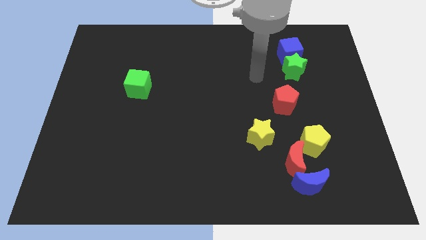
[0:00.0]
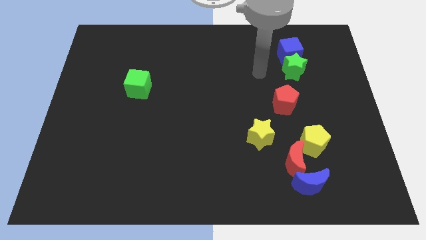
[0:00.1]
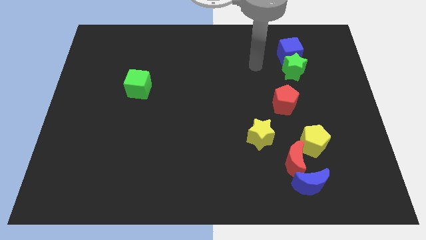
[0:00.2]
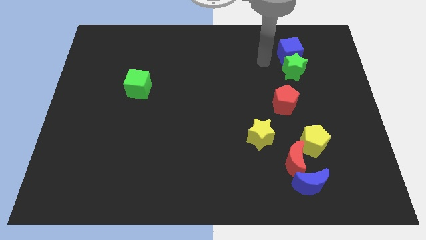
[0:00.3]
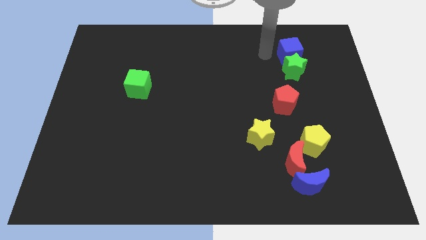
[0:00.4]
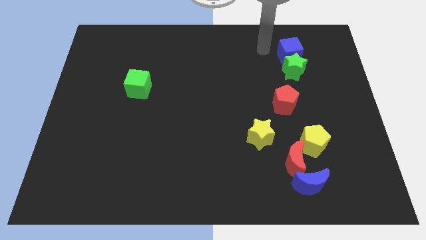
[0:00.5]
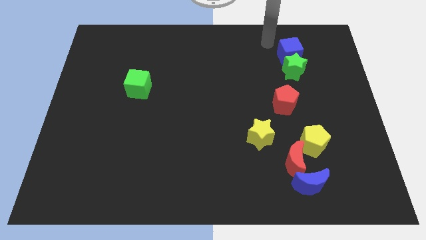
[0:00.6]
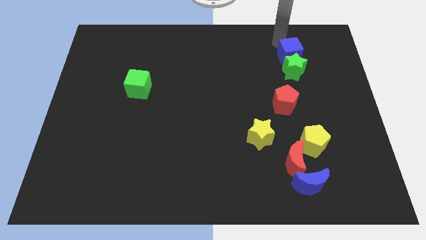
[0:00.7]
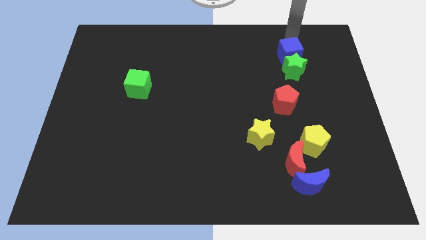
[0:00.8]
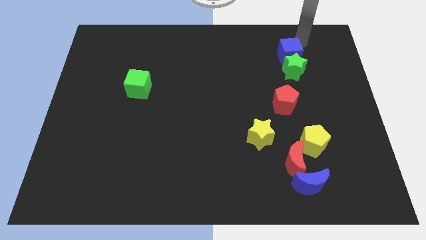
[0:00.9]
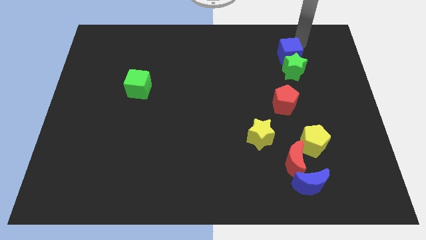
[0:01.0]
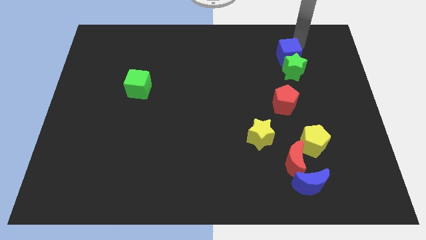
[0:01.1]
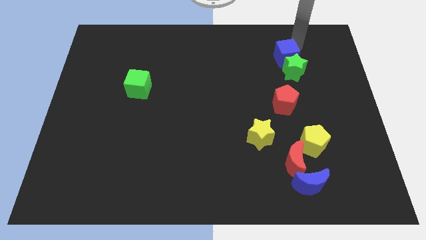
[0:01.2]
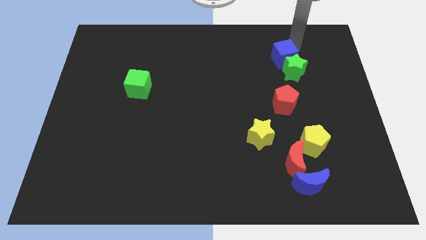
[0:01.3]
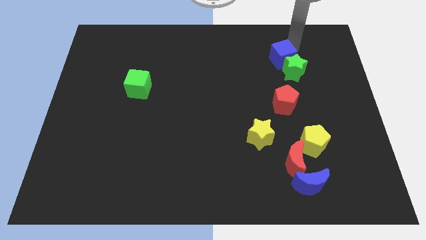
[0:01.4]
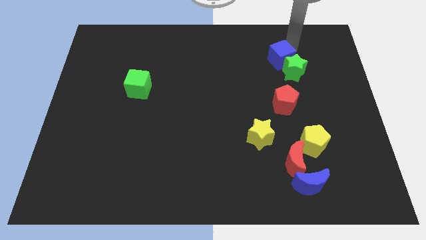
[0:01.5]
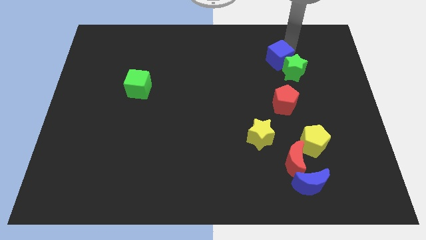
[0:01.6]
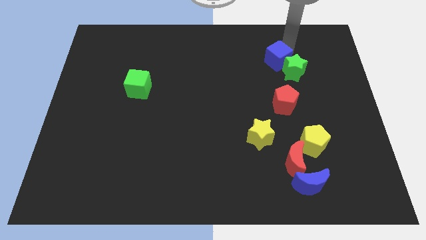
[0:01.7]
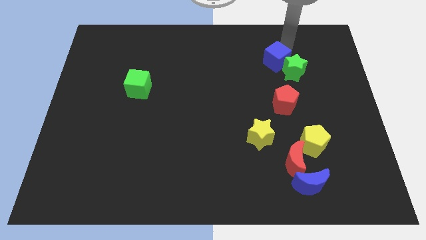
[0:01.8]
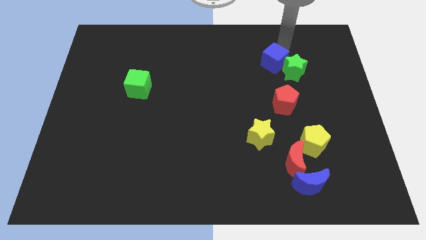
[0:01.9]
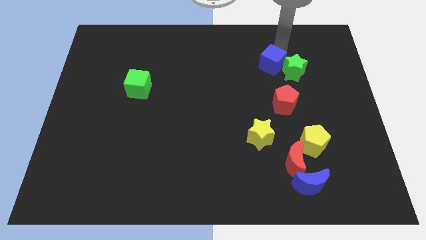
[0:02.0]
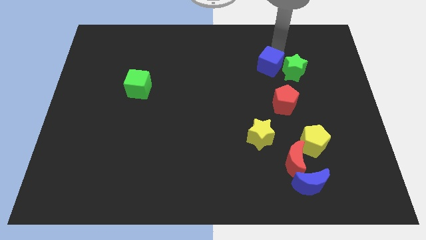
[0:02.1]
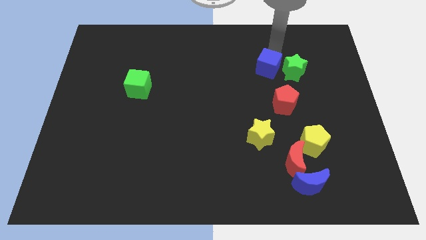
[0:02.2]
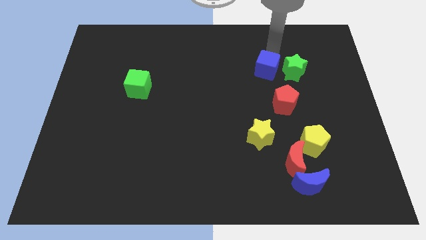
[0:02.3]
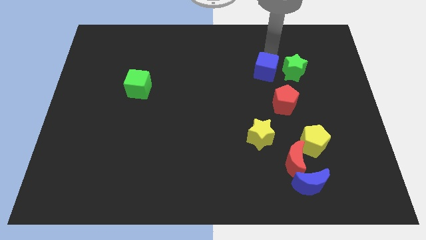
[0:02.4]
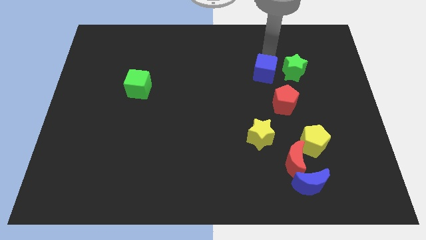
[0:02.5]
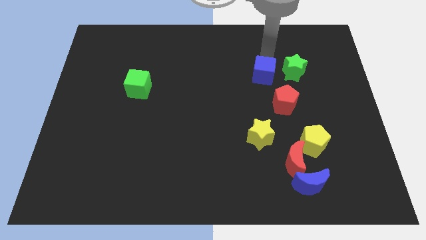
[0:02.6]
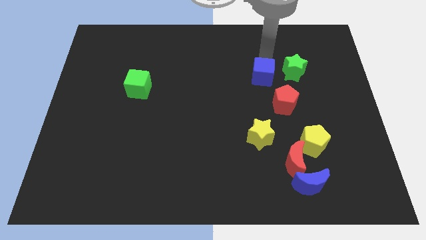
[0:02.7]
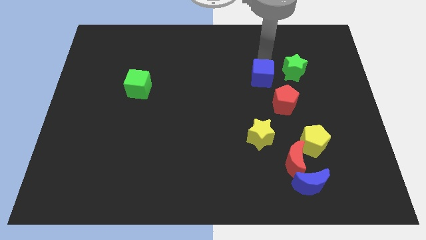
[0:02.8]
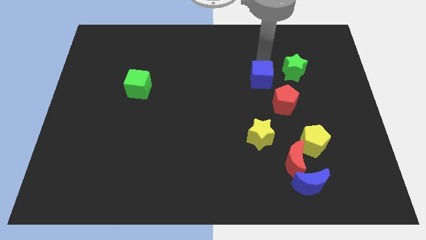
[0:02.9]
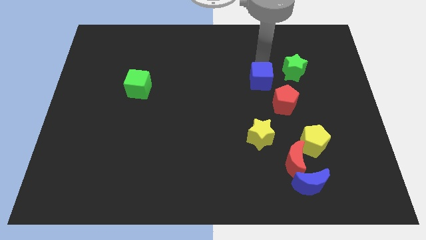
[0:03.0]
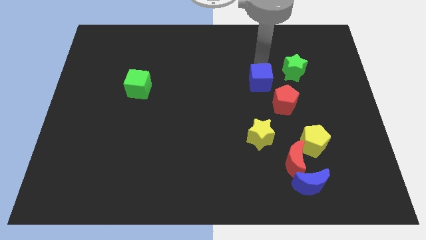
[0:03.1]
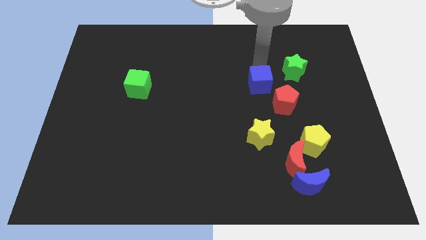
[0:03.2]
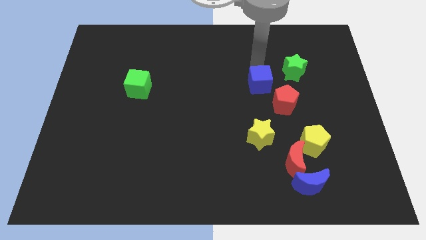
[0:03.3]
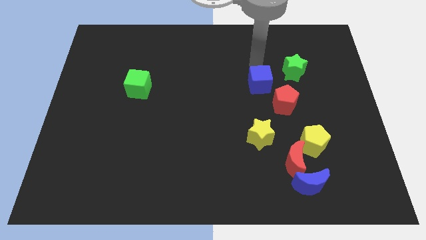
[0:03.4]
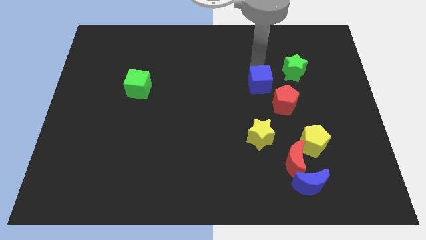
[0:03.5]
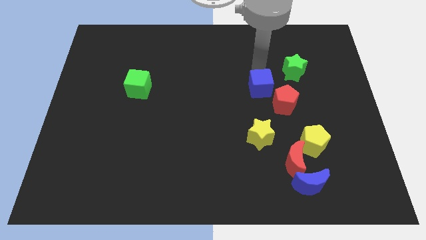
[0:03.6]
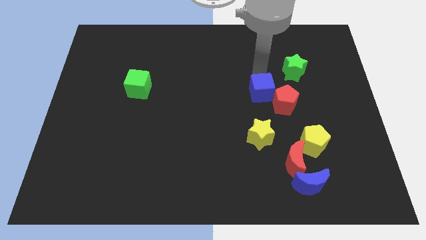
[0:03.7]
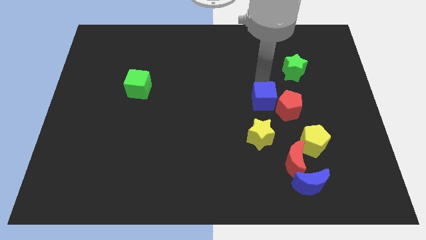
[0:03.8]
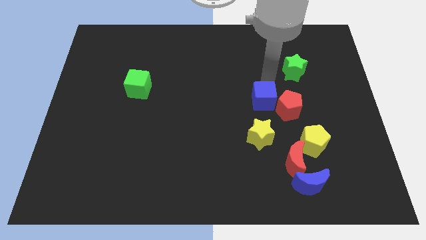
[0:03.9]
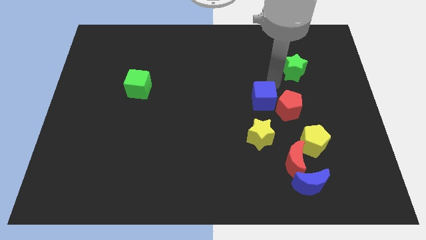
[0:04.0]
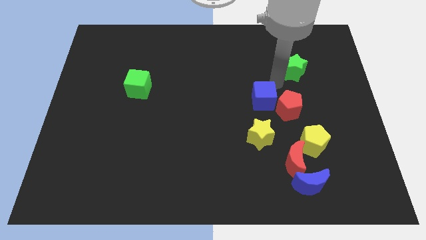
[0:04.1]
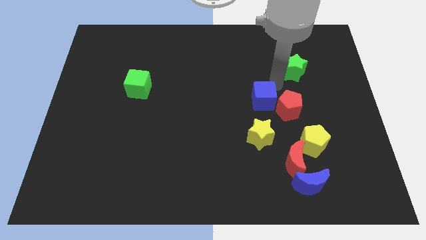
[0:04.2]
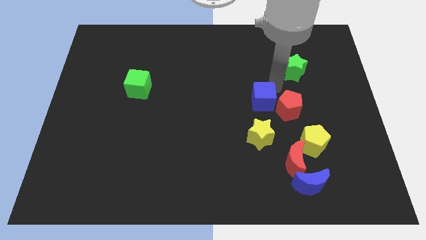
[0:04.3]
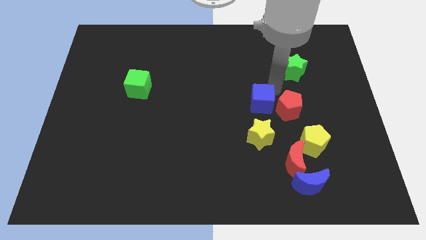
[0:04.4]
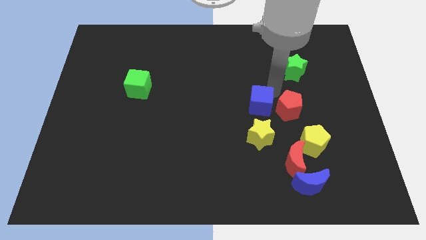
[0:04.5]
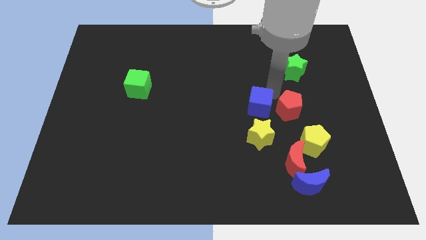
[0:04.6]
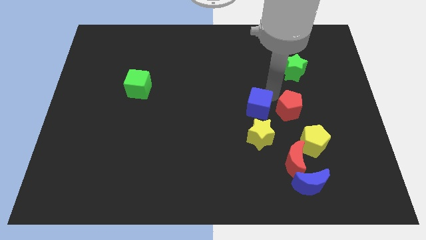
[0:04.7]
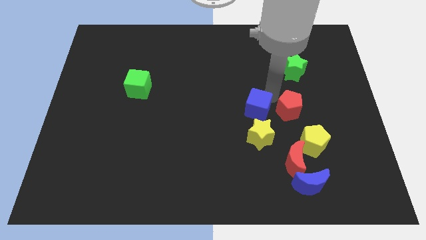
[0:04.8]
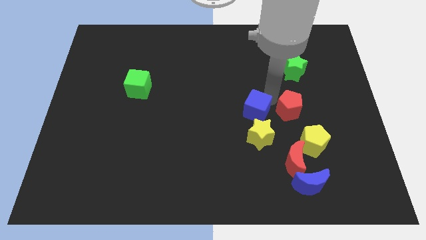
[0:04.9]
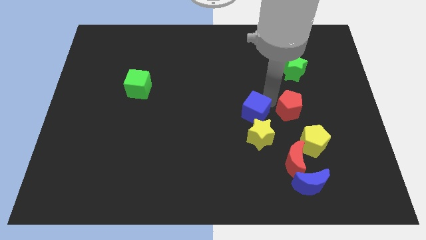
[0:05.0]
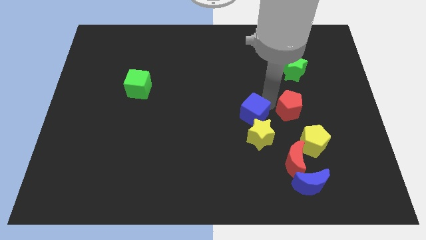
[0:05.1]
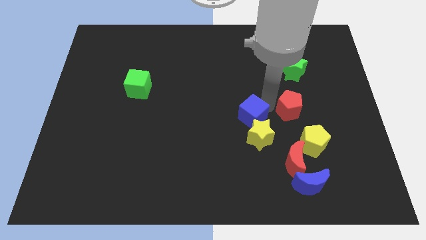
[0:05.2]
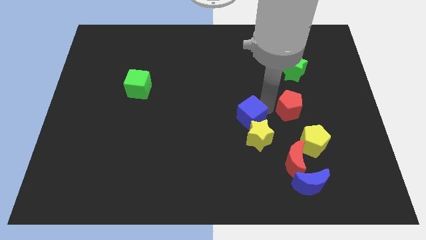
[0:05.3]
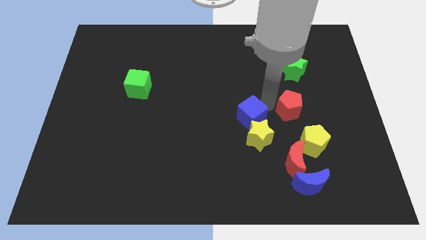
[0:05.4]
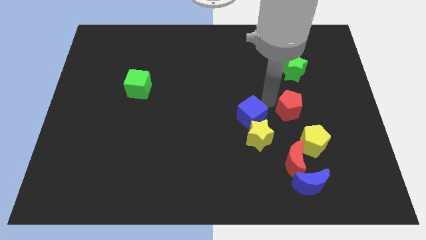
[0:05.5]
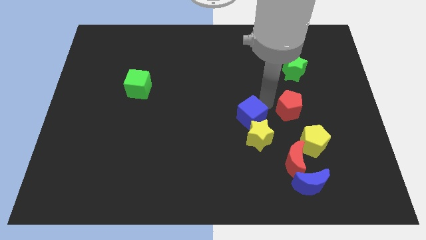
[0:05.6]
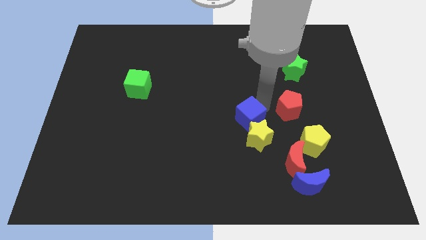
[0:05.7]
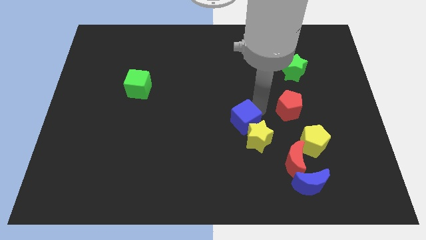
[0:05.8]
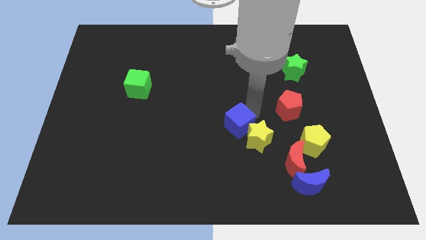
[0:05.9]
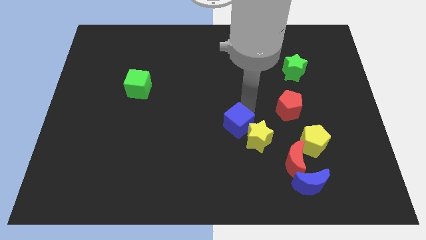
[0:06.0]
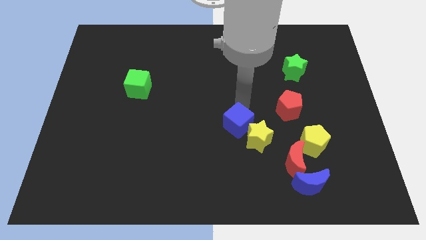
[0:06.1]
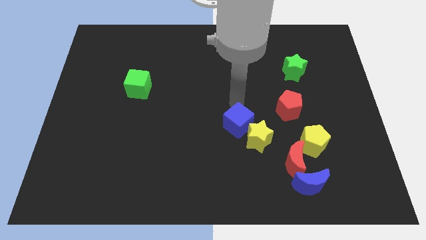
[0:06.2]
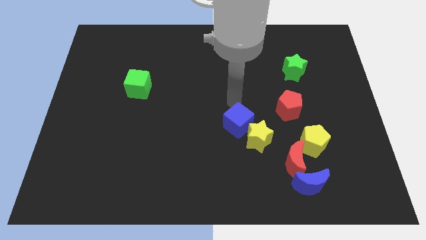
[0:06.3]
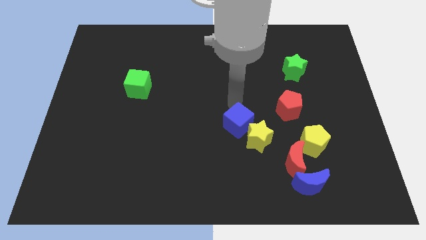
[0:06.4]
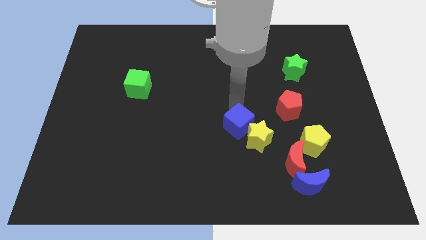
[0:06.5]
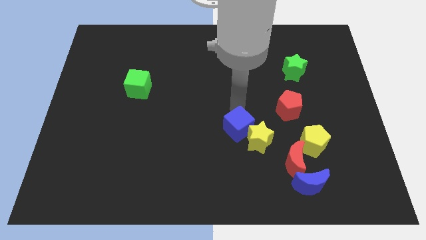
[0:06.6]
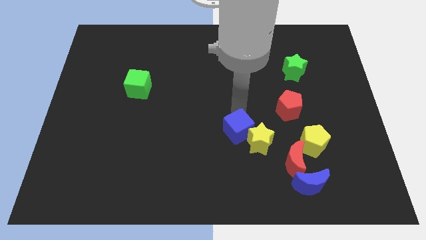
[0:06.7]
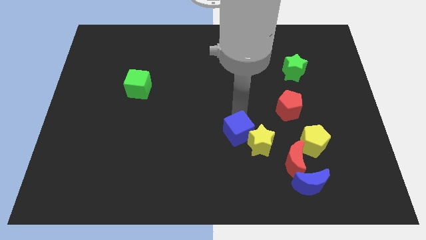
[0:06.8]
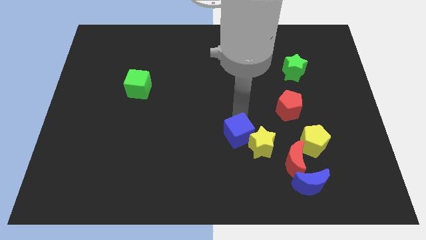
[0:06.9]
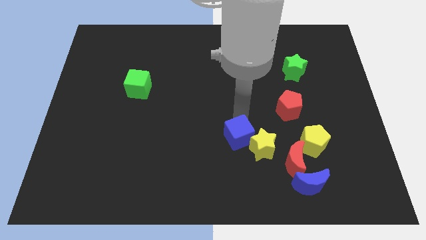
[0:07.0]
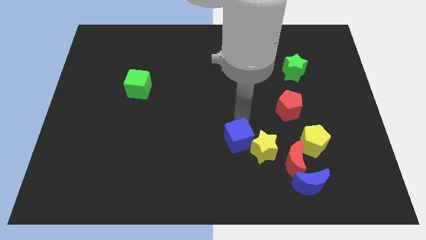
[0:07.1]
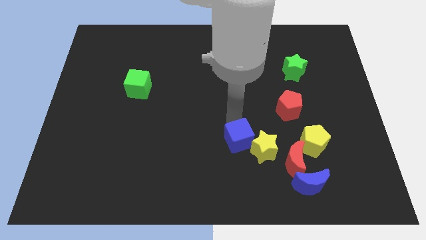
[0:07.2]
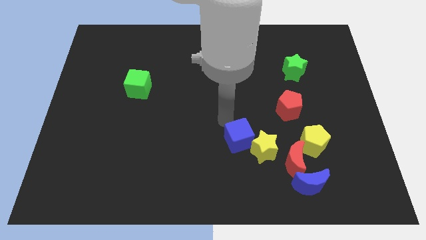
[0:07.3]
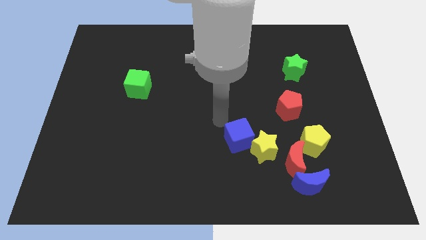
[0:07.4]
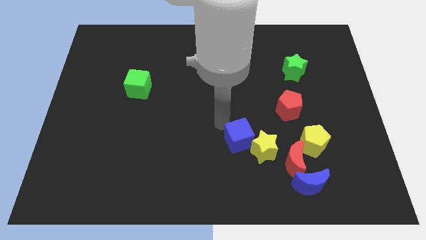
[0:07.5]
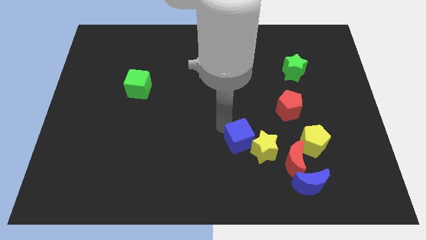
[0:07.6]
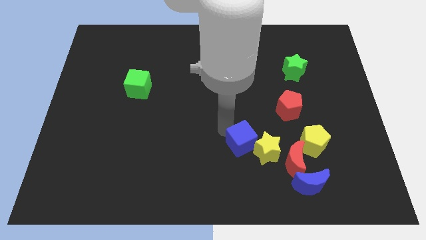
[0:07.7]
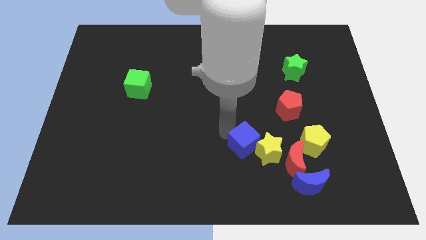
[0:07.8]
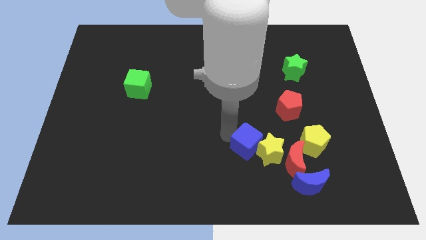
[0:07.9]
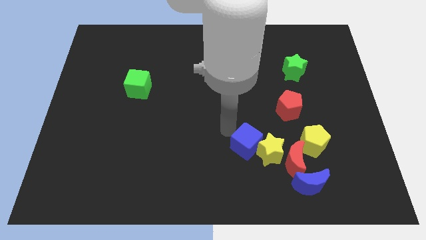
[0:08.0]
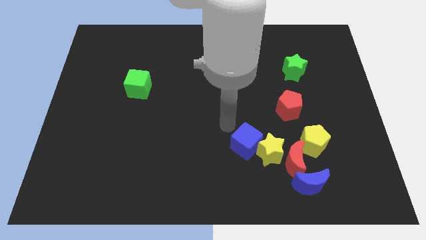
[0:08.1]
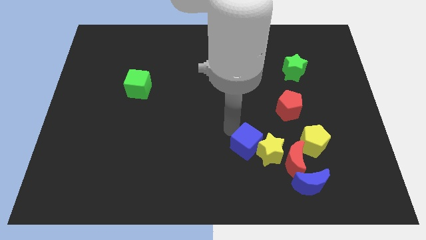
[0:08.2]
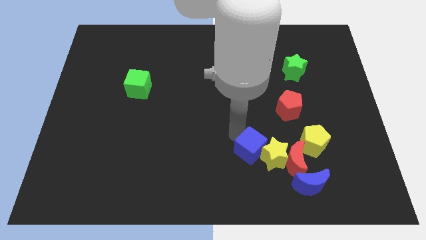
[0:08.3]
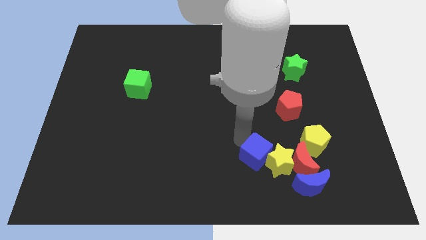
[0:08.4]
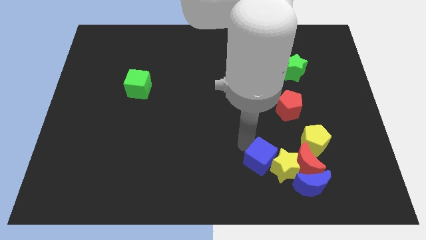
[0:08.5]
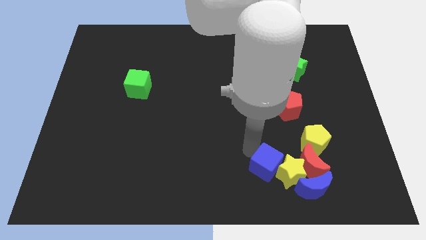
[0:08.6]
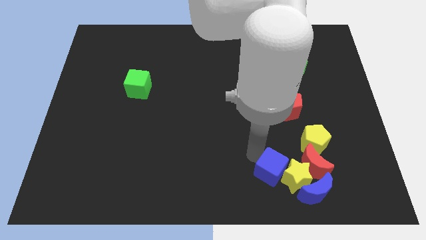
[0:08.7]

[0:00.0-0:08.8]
push the blue cube to the bottom left side of the yellow pentagon
